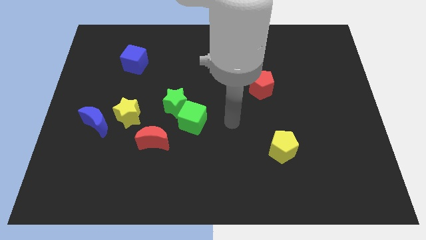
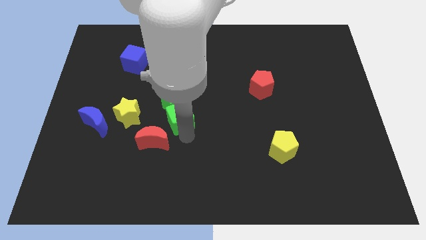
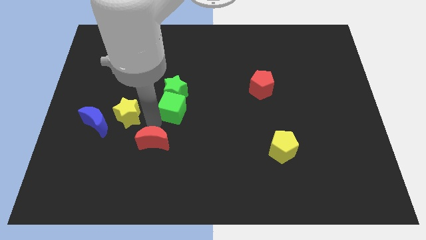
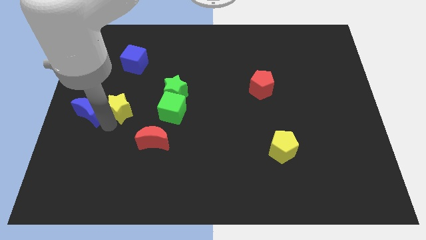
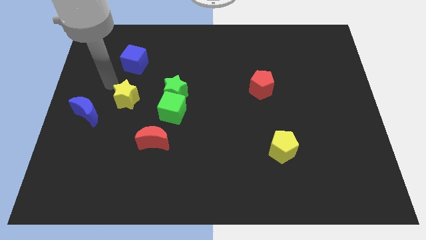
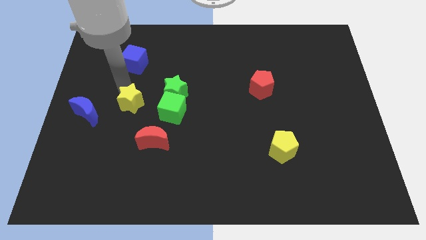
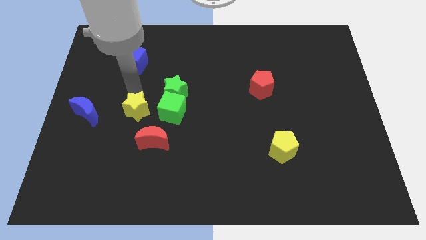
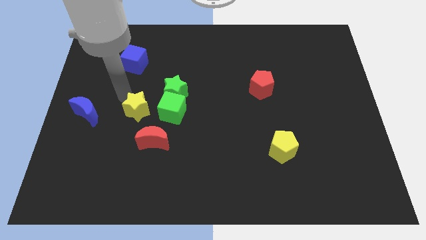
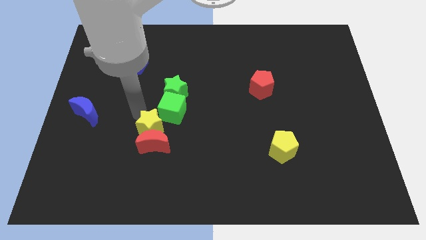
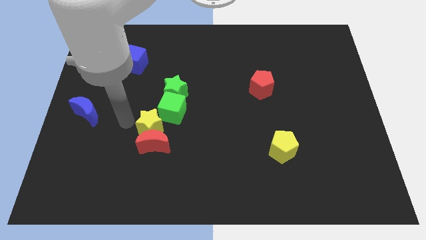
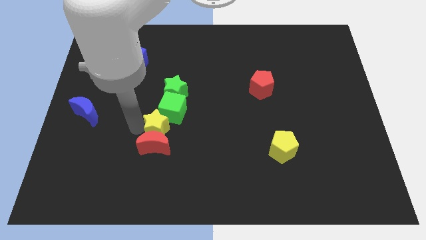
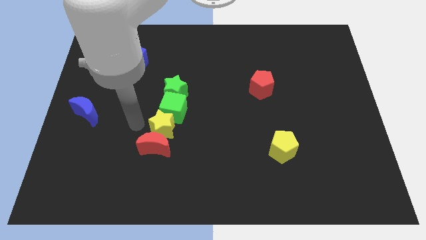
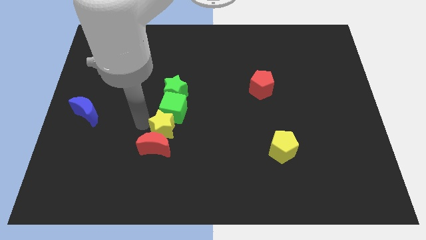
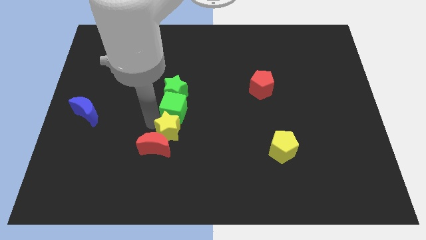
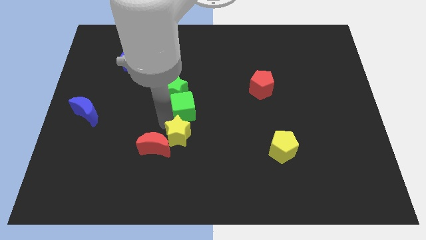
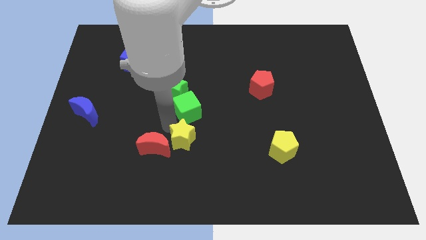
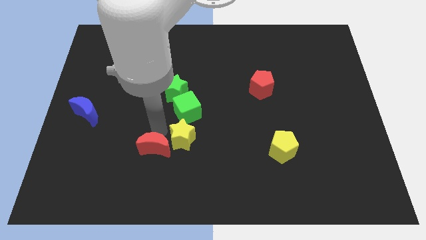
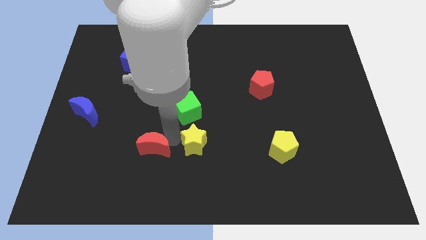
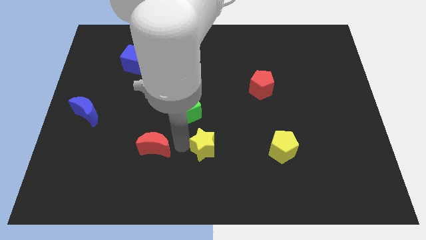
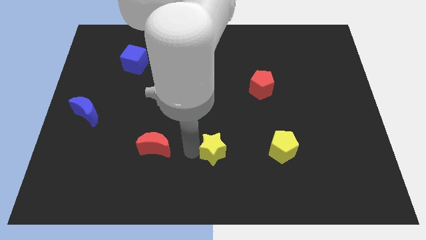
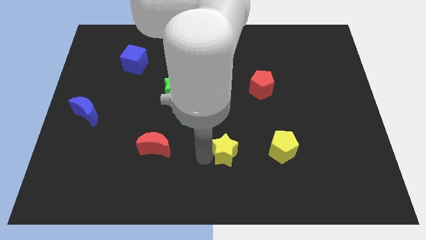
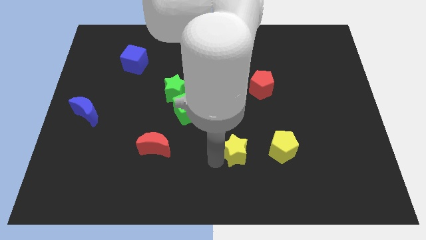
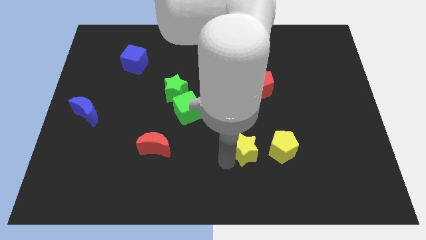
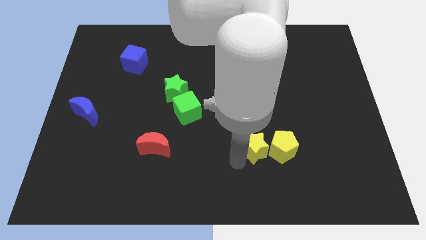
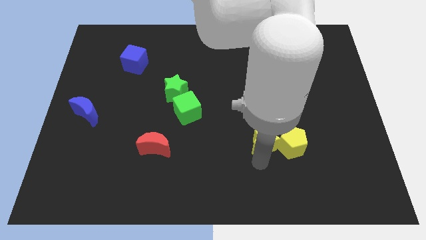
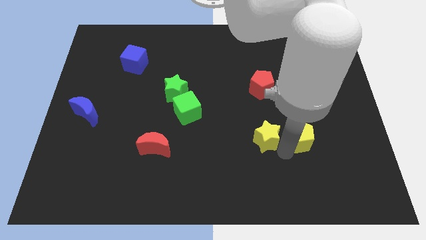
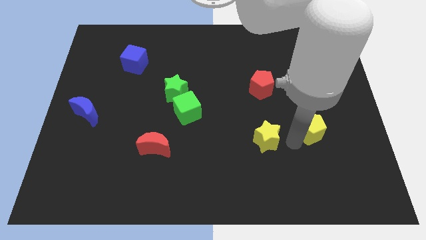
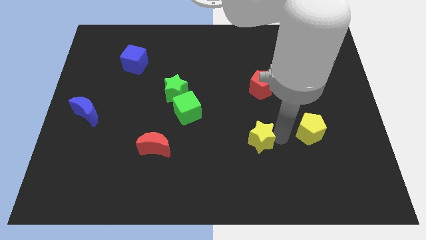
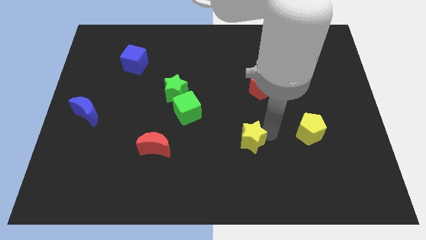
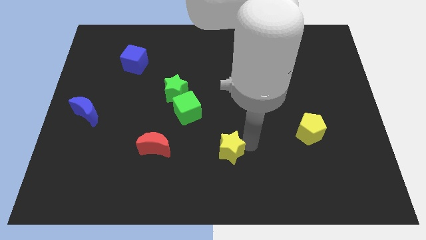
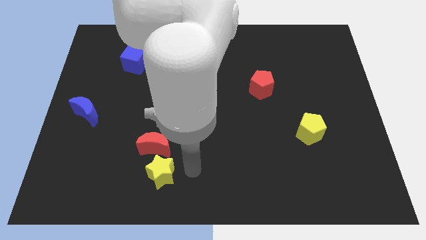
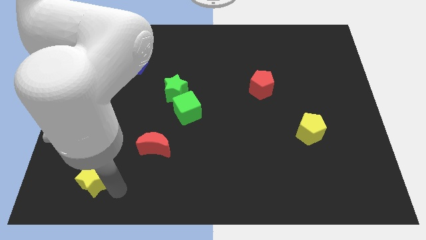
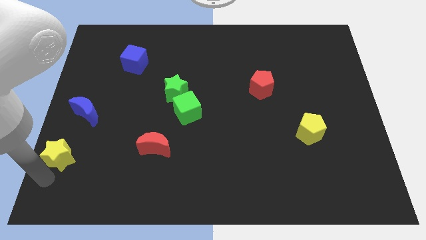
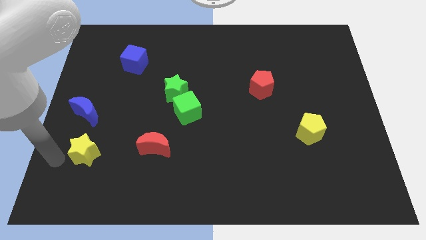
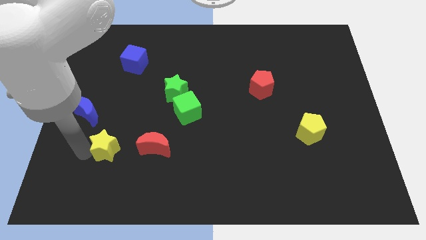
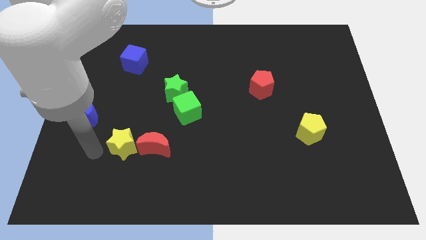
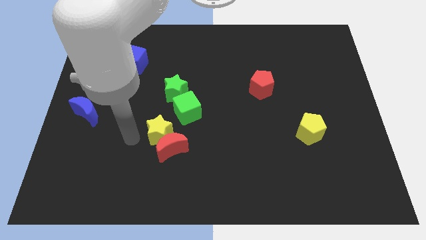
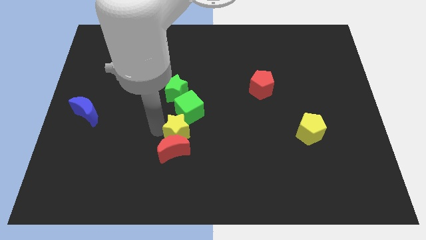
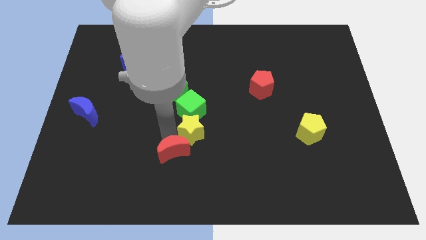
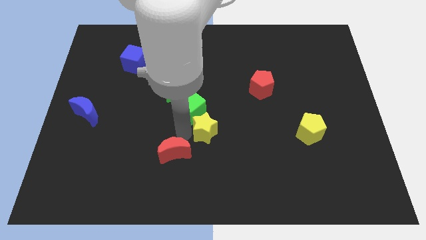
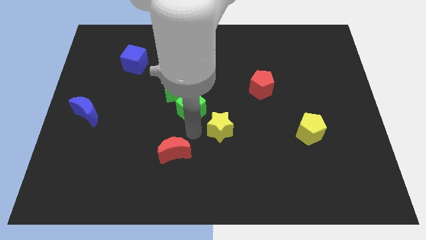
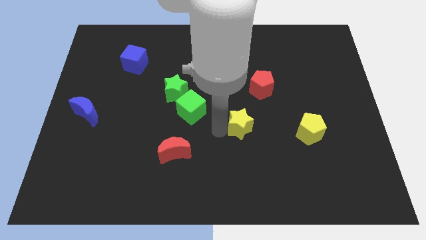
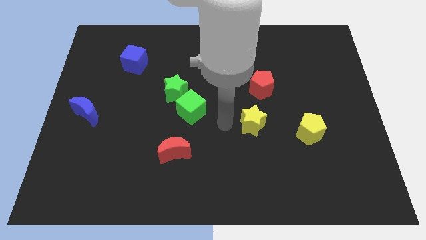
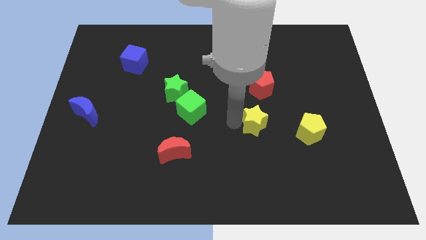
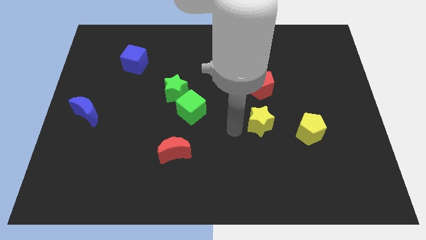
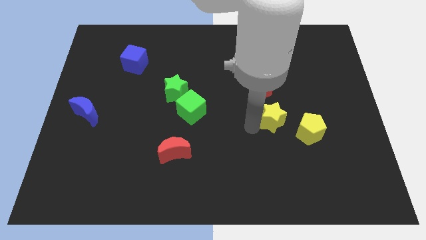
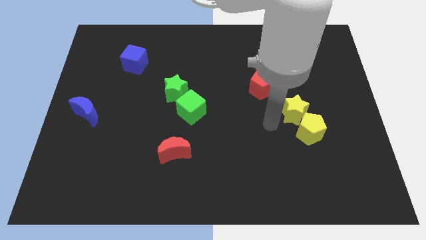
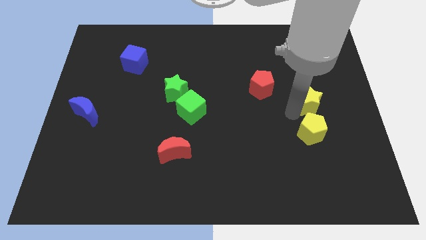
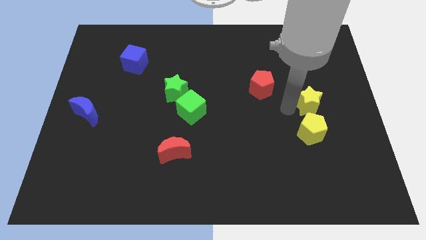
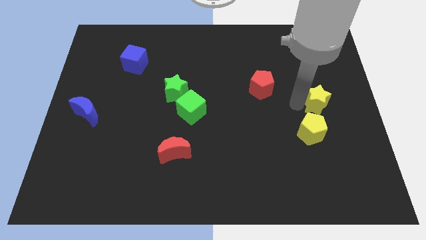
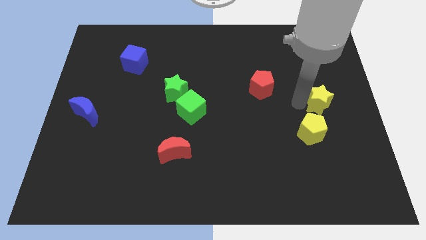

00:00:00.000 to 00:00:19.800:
put the yellow star to the right side of the board
